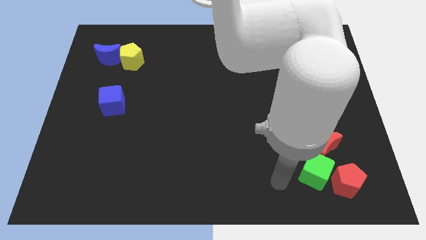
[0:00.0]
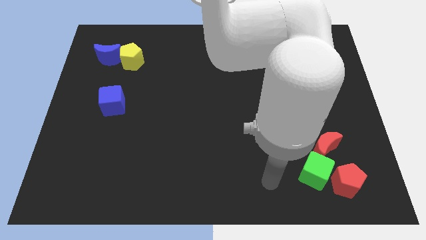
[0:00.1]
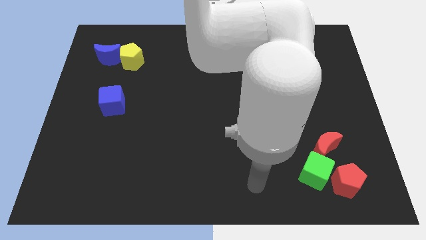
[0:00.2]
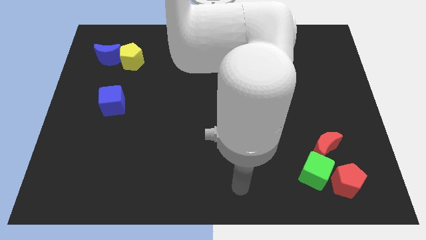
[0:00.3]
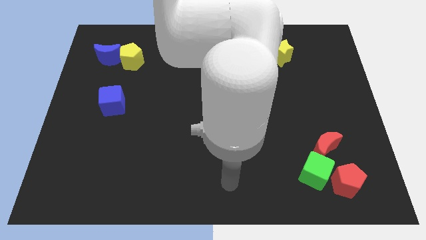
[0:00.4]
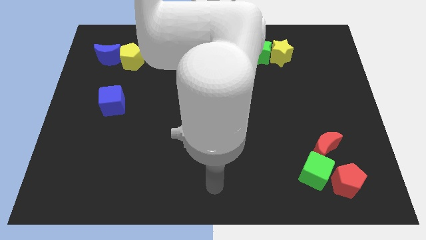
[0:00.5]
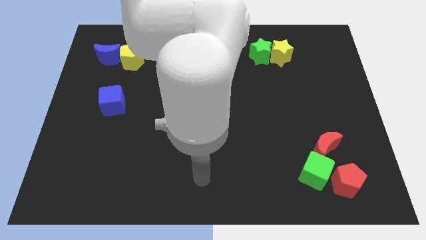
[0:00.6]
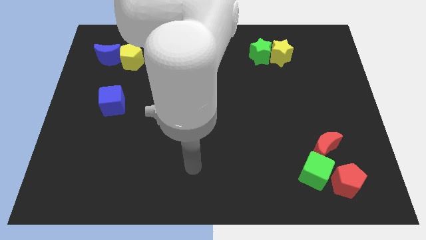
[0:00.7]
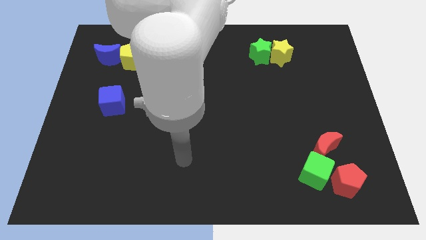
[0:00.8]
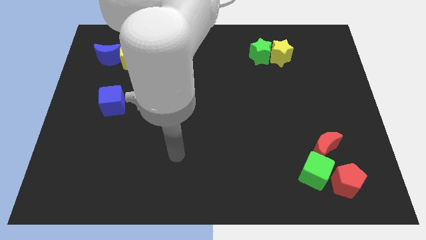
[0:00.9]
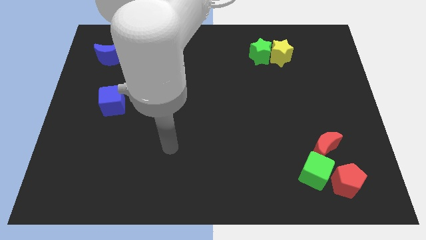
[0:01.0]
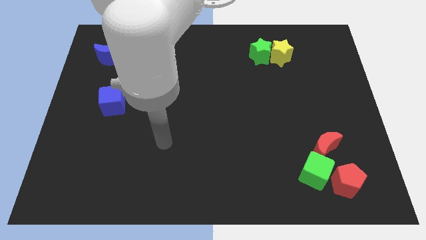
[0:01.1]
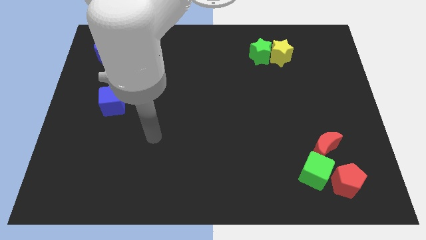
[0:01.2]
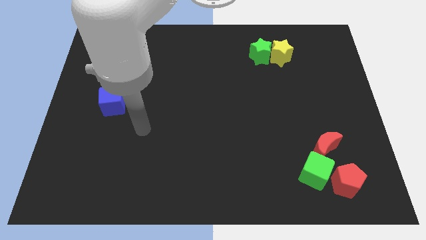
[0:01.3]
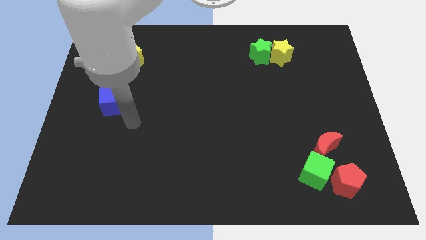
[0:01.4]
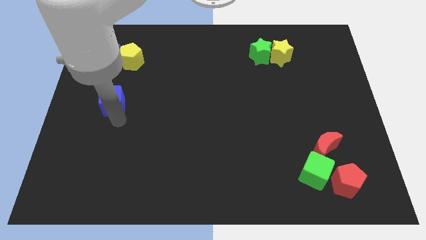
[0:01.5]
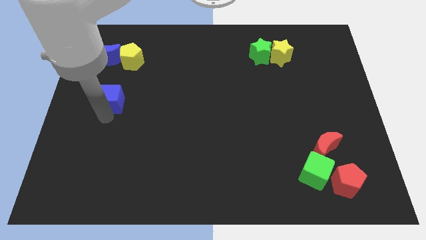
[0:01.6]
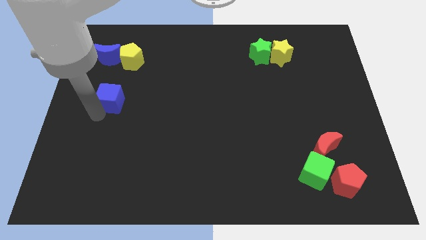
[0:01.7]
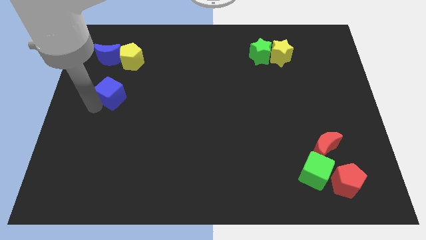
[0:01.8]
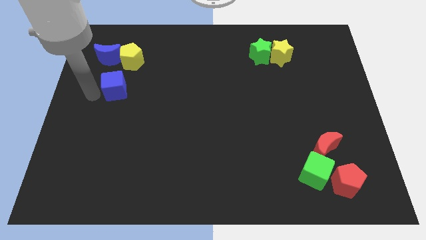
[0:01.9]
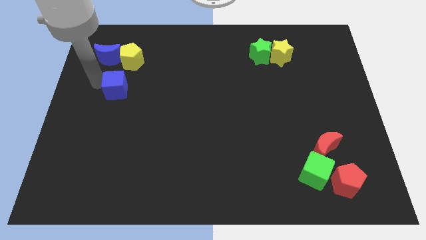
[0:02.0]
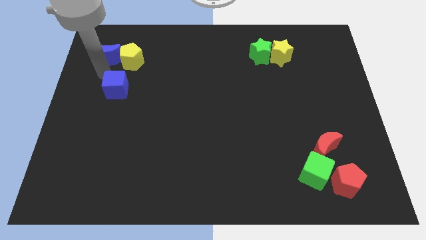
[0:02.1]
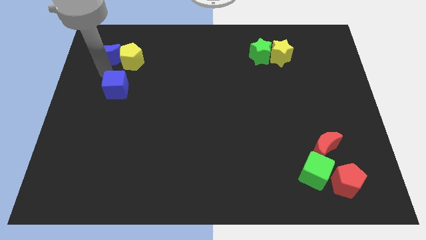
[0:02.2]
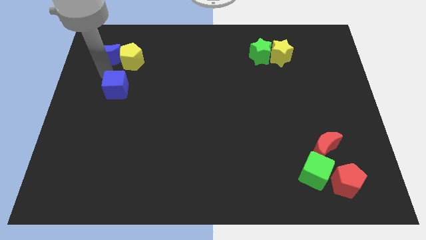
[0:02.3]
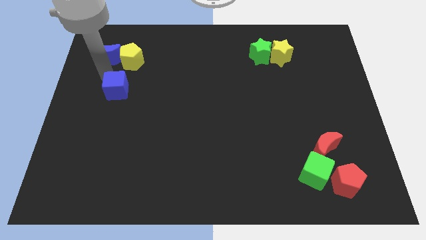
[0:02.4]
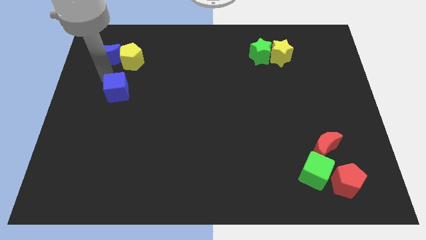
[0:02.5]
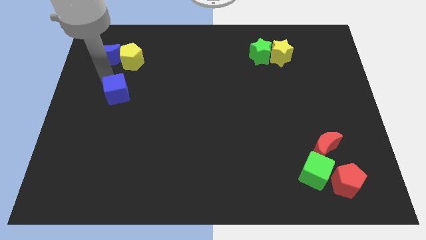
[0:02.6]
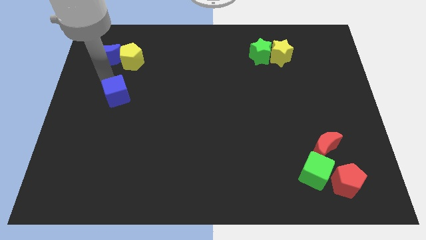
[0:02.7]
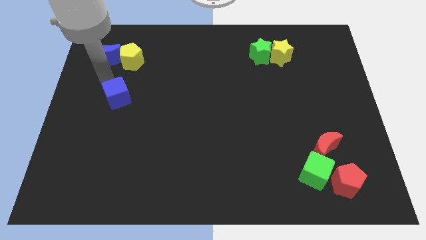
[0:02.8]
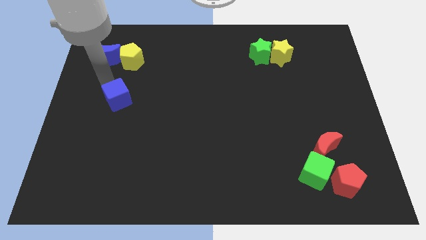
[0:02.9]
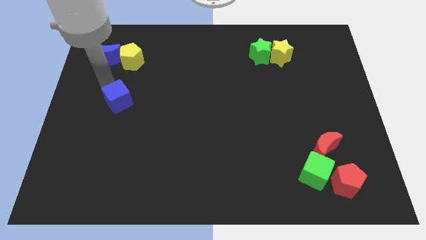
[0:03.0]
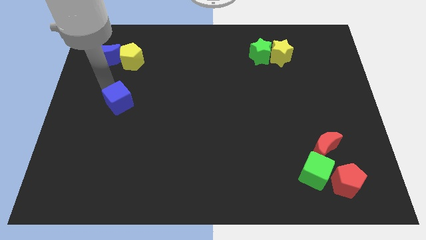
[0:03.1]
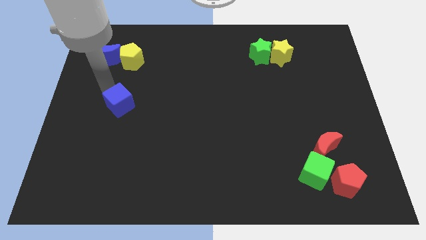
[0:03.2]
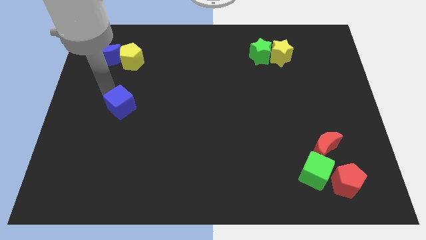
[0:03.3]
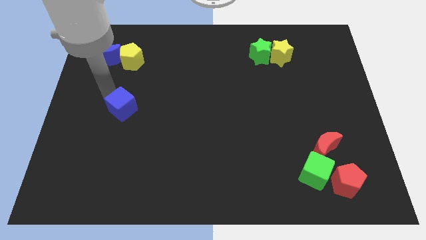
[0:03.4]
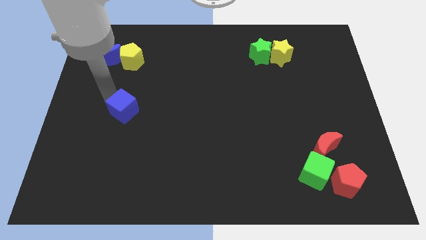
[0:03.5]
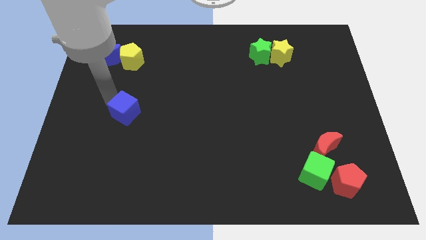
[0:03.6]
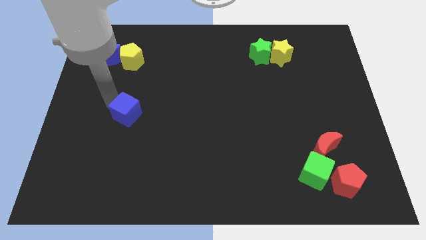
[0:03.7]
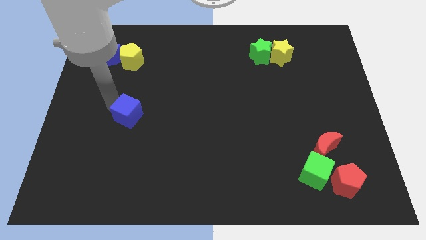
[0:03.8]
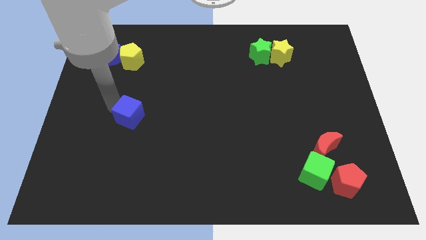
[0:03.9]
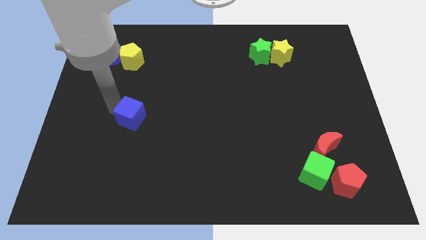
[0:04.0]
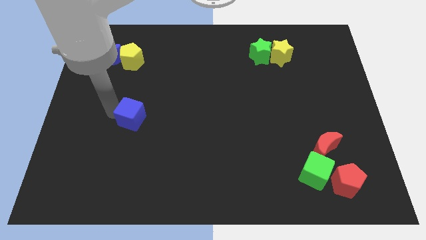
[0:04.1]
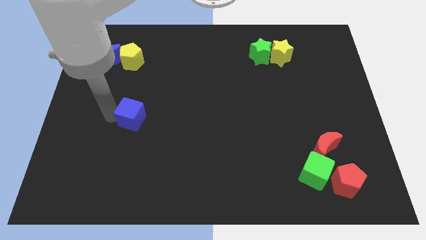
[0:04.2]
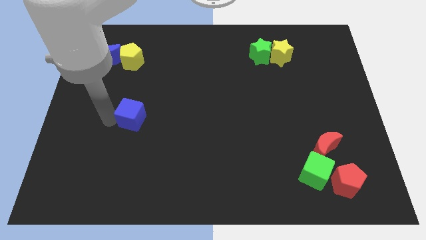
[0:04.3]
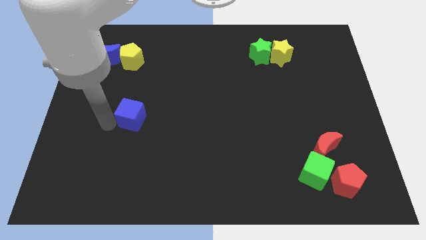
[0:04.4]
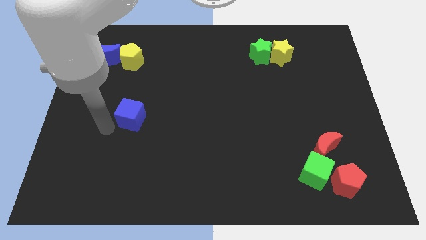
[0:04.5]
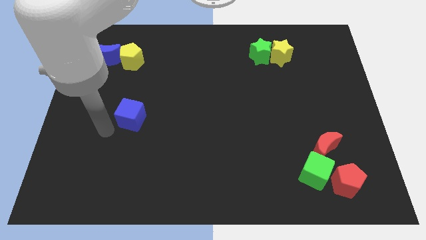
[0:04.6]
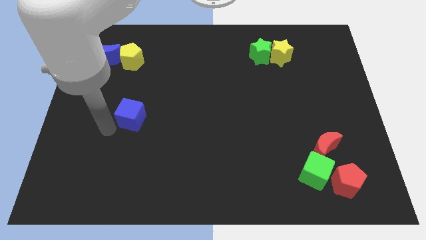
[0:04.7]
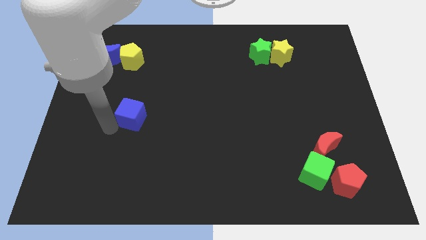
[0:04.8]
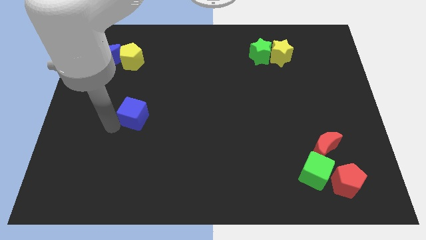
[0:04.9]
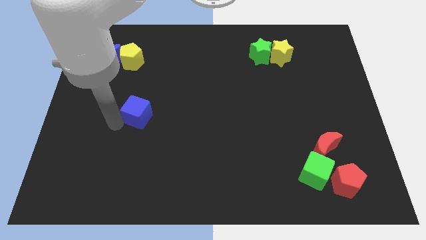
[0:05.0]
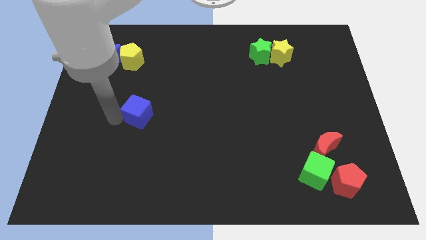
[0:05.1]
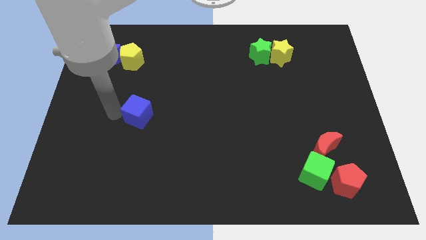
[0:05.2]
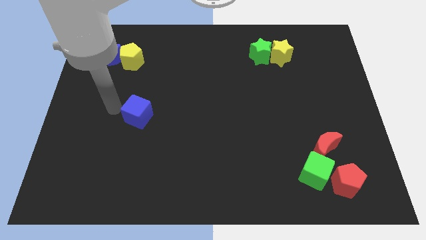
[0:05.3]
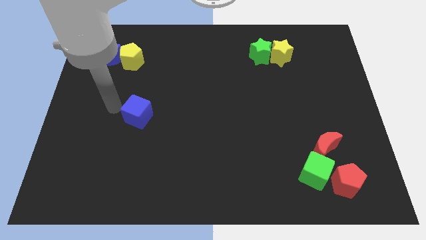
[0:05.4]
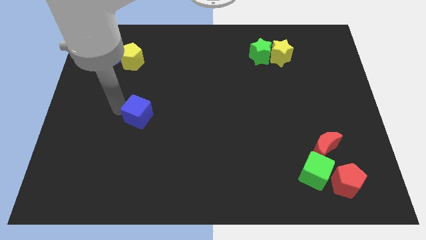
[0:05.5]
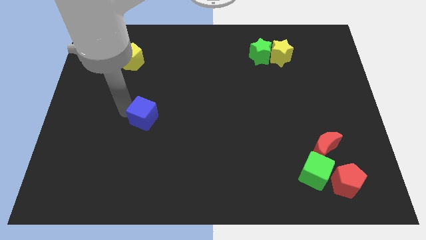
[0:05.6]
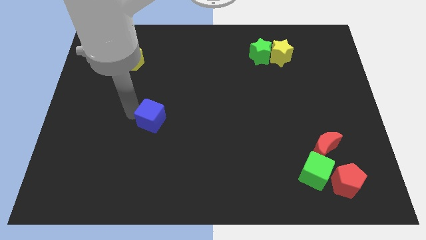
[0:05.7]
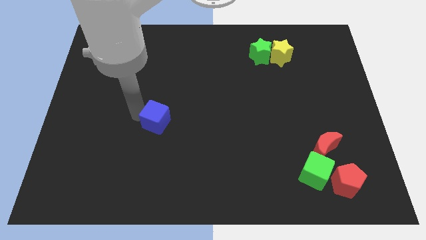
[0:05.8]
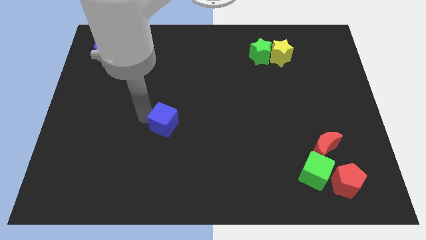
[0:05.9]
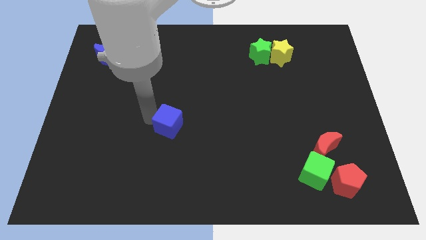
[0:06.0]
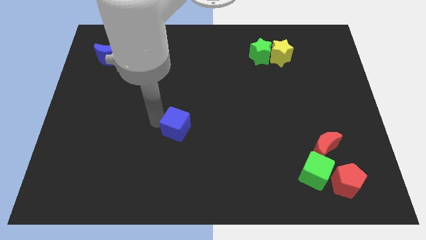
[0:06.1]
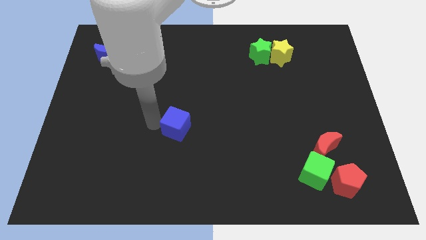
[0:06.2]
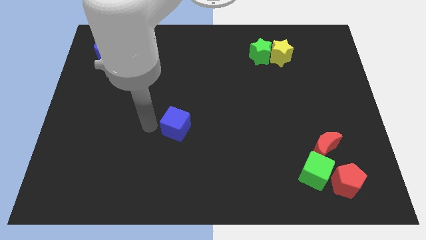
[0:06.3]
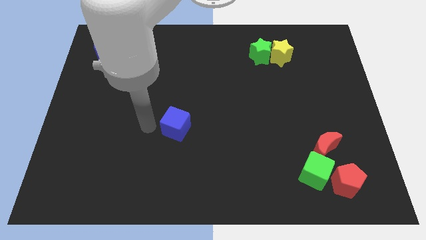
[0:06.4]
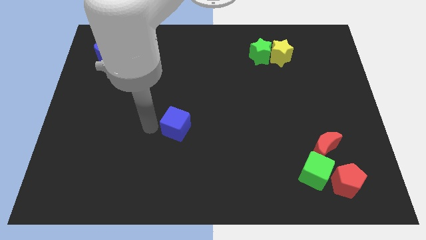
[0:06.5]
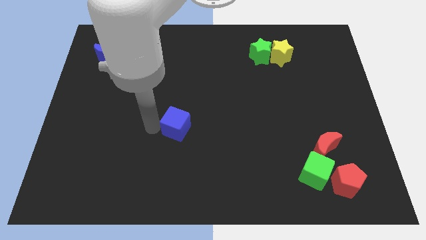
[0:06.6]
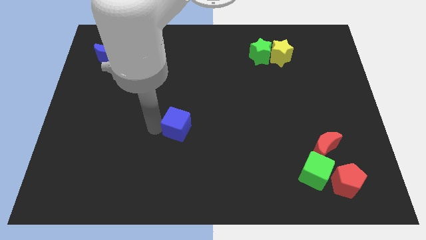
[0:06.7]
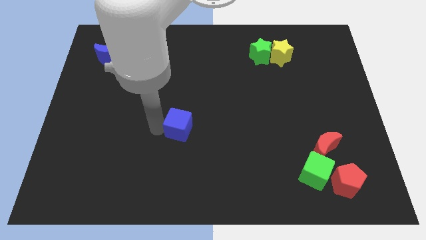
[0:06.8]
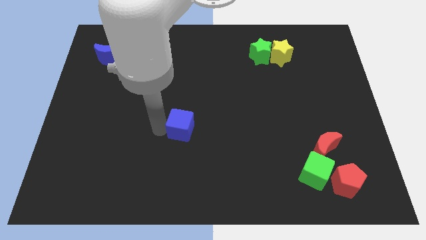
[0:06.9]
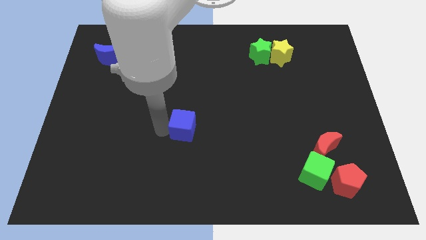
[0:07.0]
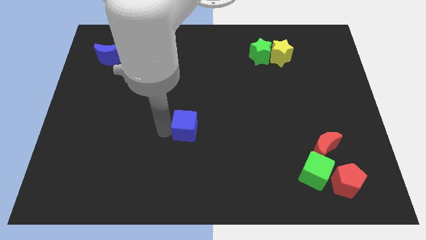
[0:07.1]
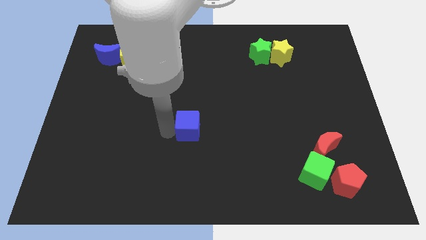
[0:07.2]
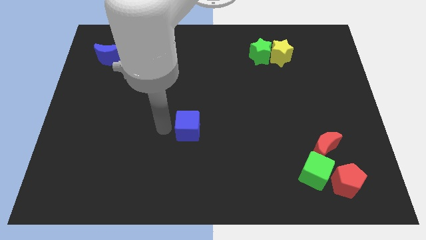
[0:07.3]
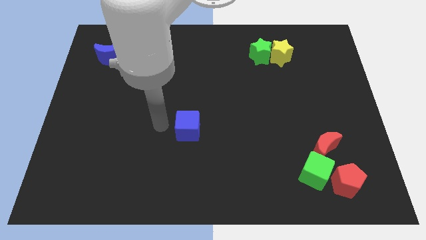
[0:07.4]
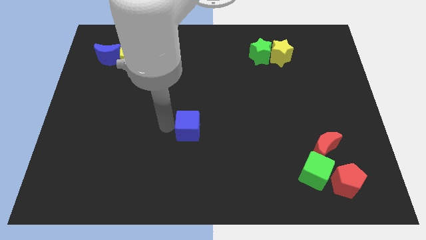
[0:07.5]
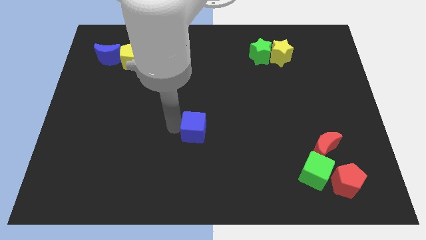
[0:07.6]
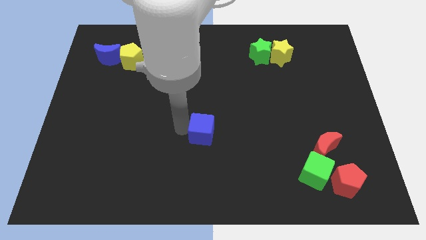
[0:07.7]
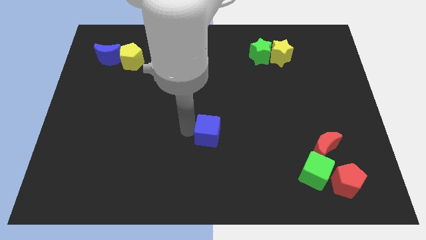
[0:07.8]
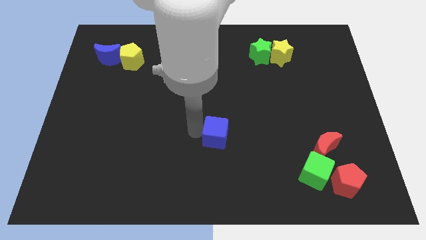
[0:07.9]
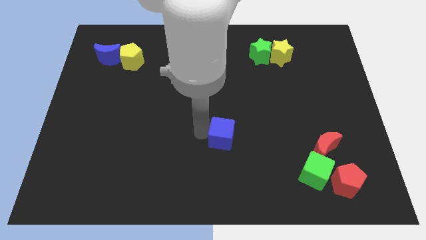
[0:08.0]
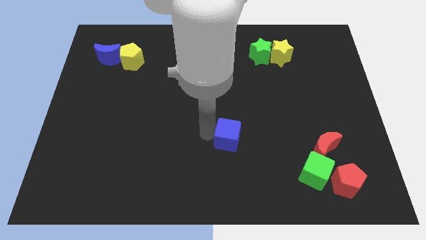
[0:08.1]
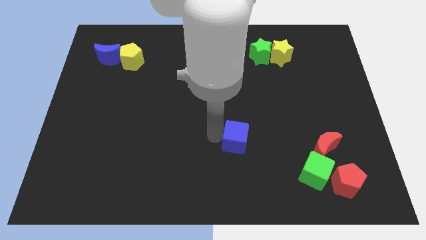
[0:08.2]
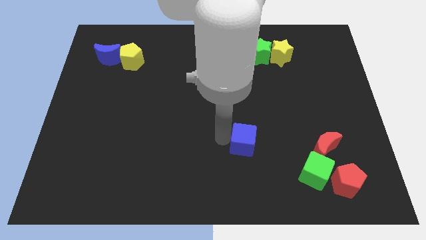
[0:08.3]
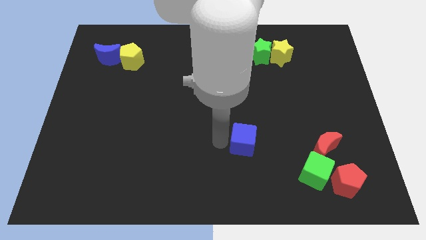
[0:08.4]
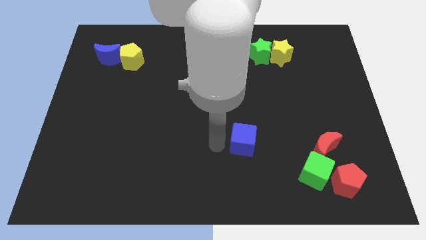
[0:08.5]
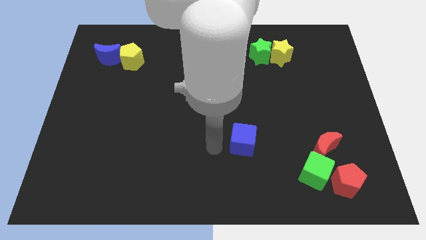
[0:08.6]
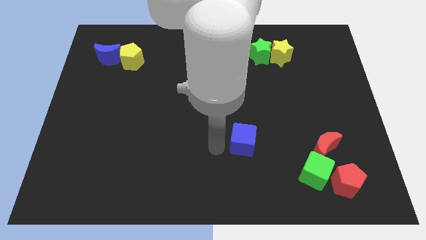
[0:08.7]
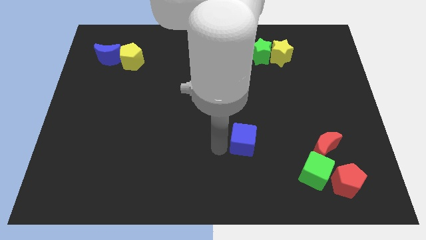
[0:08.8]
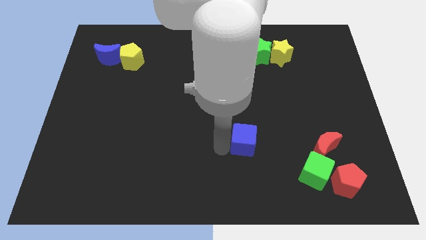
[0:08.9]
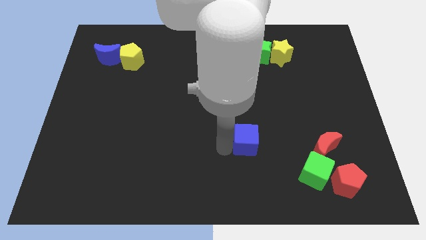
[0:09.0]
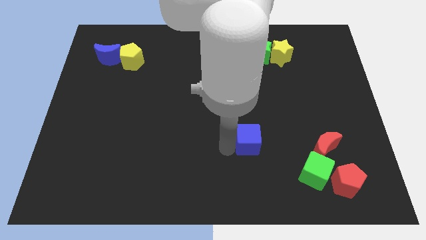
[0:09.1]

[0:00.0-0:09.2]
slide the blue cube just left of the red moon
